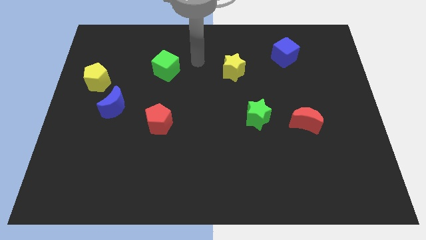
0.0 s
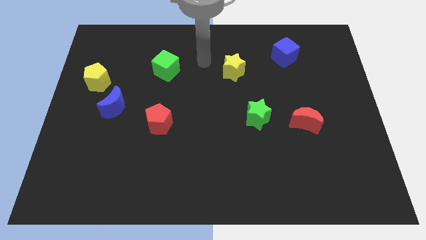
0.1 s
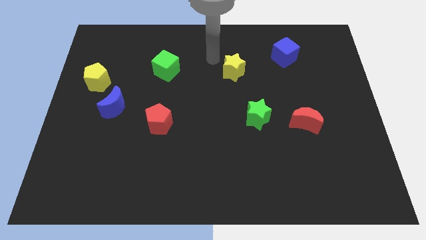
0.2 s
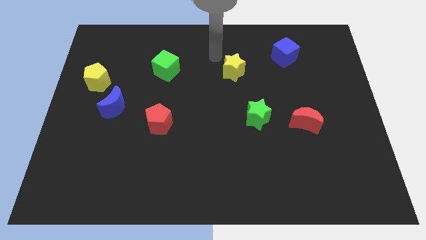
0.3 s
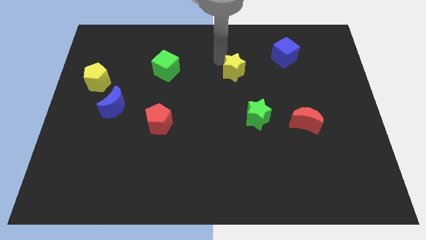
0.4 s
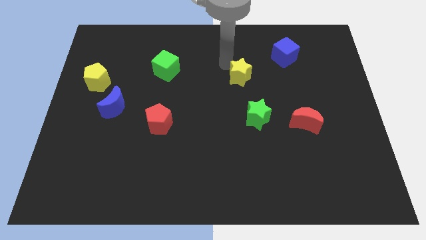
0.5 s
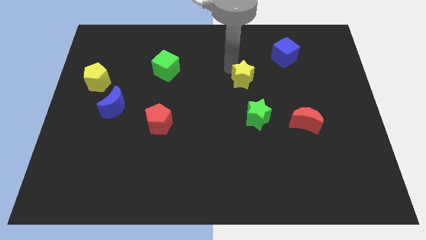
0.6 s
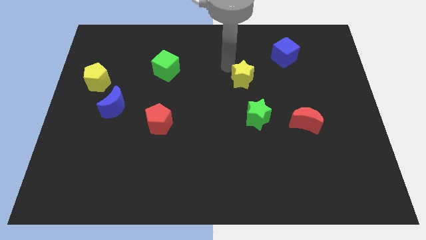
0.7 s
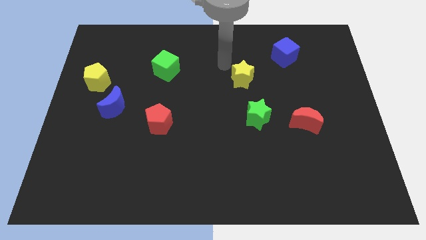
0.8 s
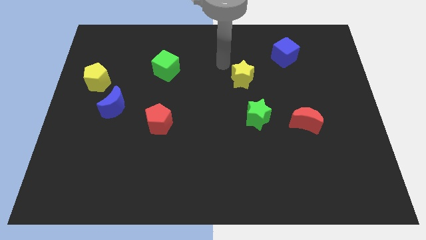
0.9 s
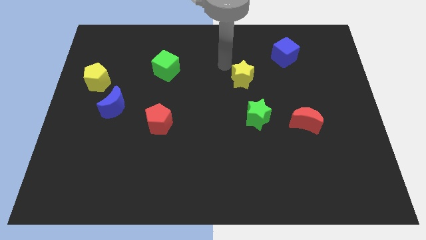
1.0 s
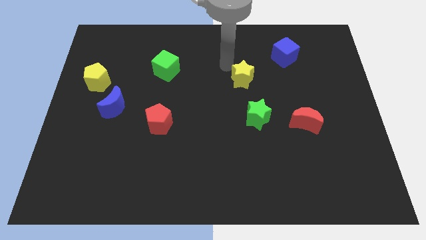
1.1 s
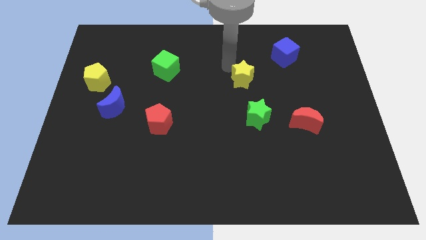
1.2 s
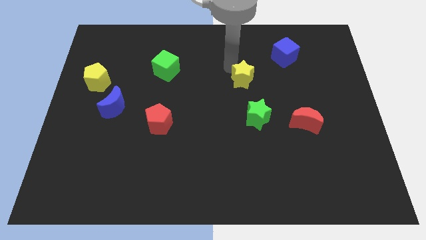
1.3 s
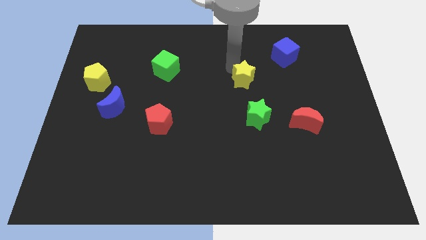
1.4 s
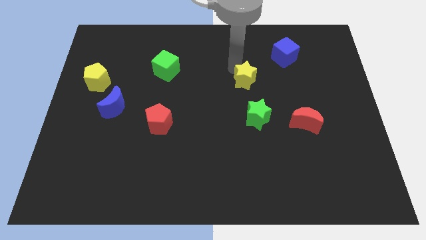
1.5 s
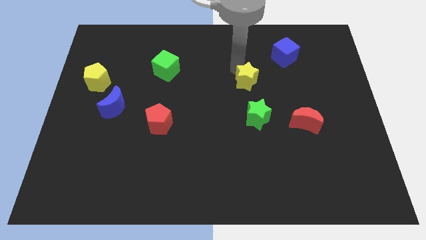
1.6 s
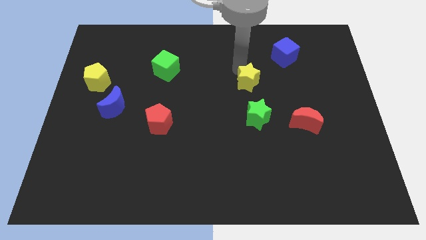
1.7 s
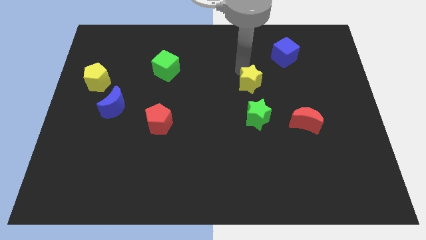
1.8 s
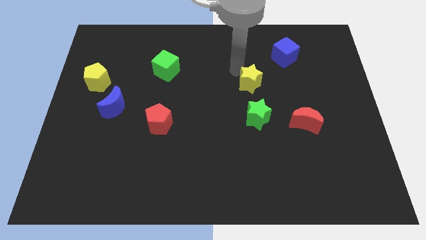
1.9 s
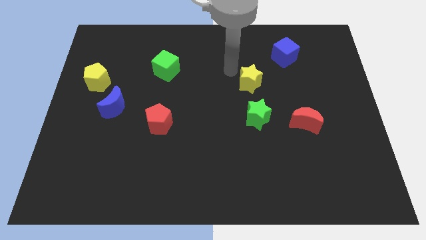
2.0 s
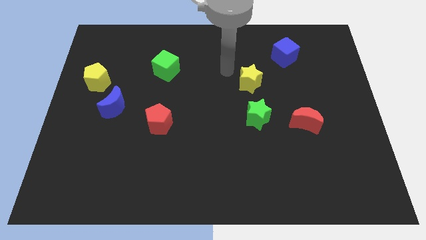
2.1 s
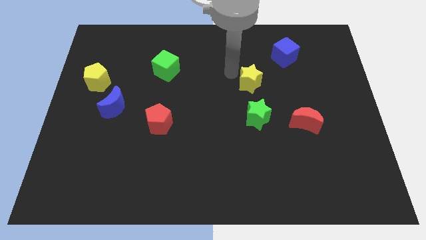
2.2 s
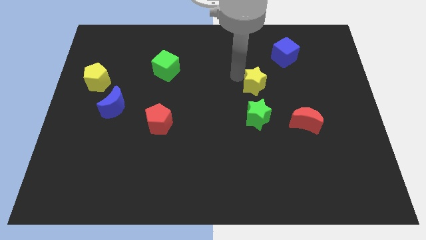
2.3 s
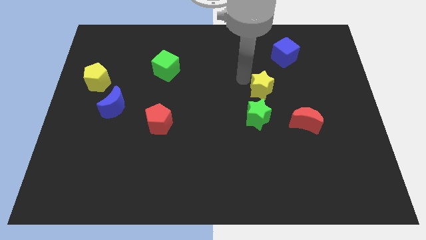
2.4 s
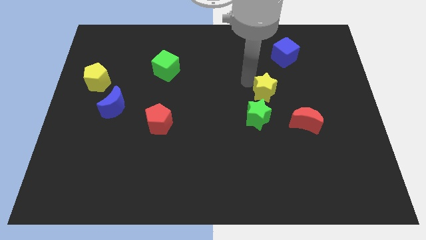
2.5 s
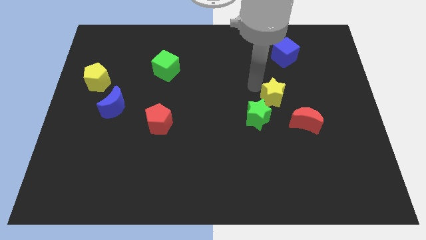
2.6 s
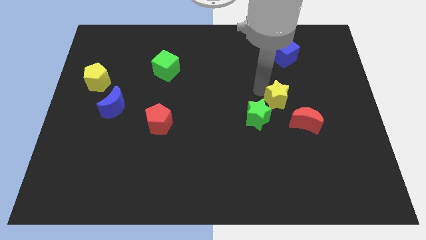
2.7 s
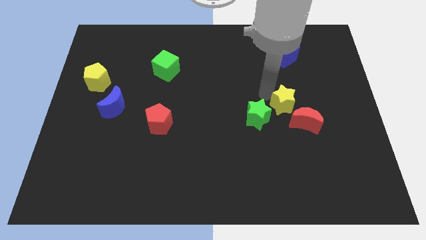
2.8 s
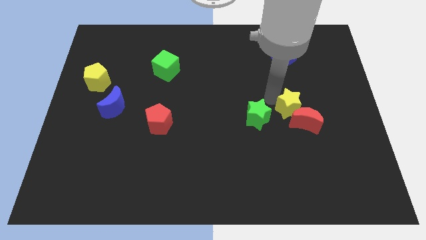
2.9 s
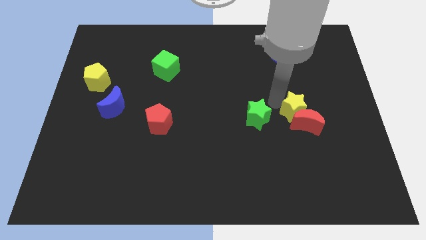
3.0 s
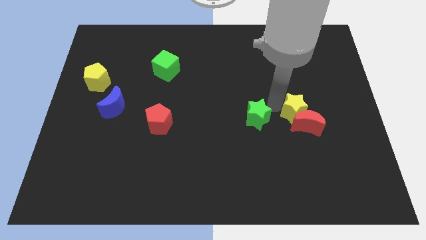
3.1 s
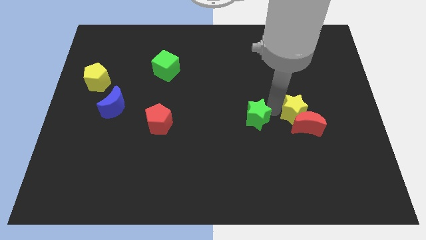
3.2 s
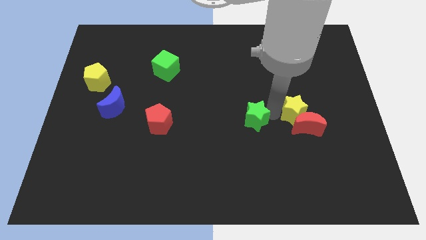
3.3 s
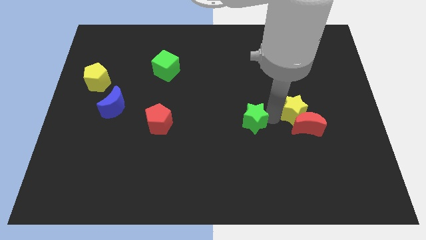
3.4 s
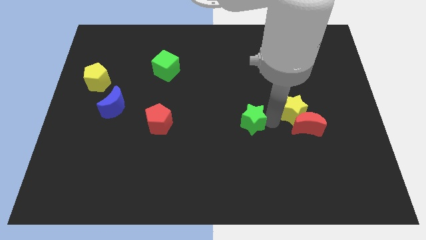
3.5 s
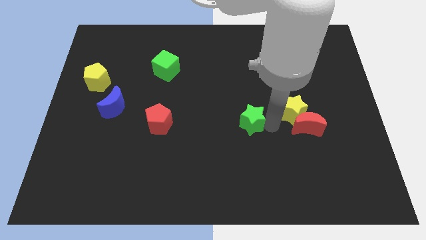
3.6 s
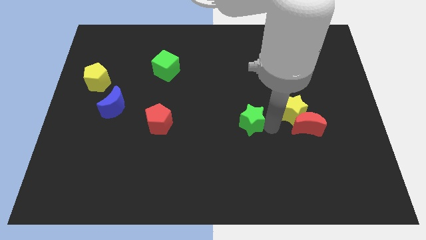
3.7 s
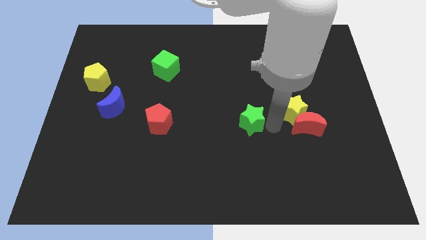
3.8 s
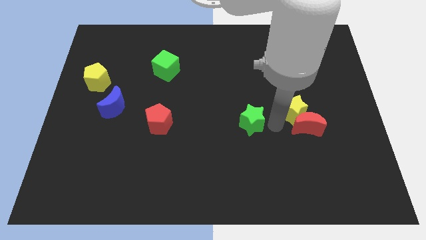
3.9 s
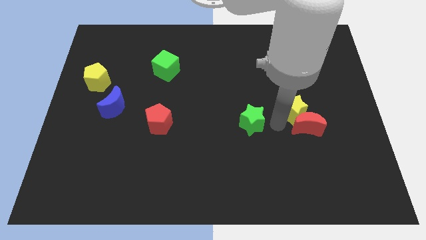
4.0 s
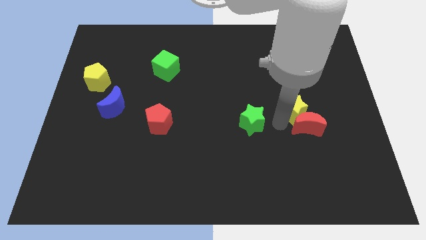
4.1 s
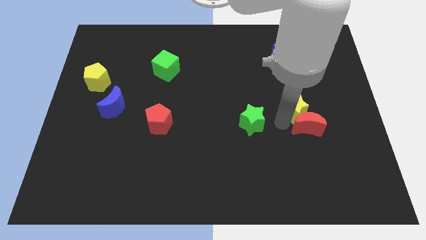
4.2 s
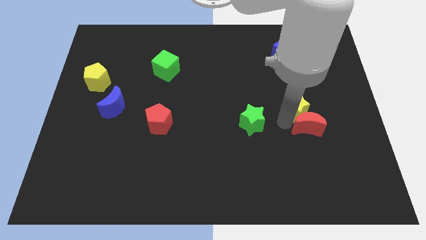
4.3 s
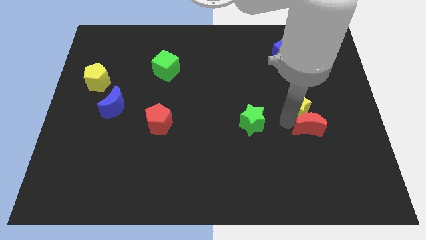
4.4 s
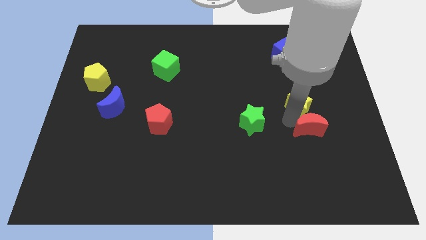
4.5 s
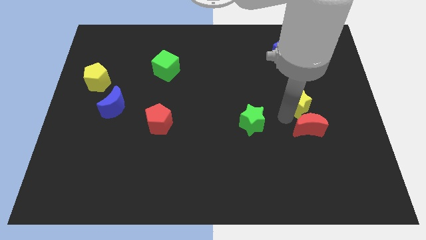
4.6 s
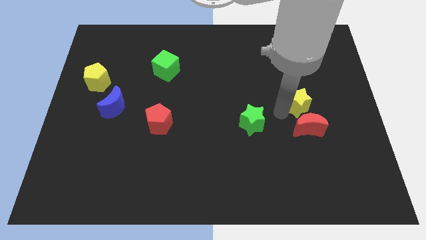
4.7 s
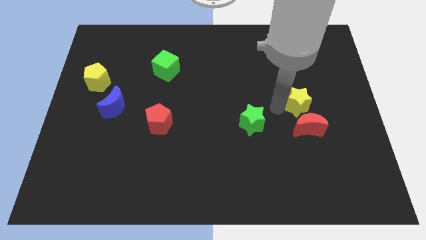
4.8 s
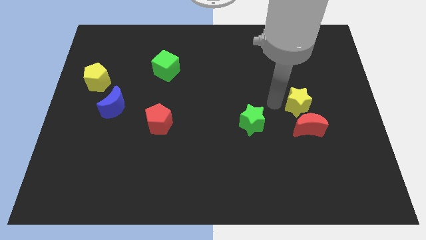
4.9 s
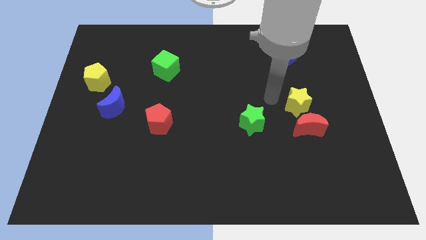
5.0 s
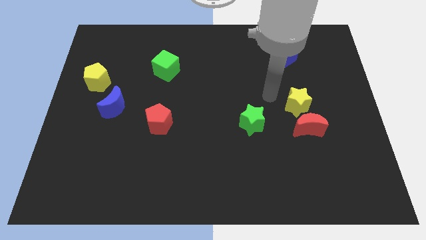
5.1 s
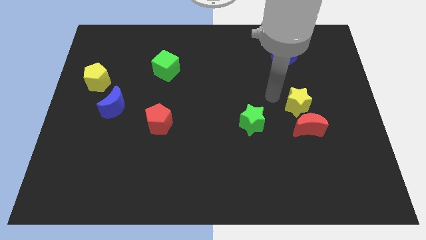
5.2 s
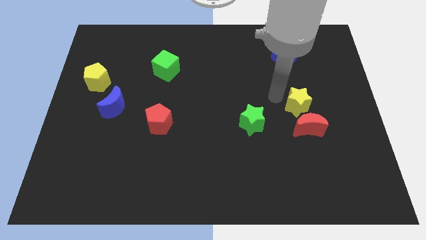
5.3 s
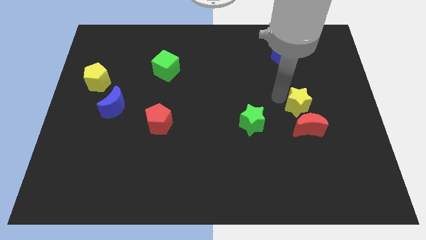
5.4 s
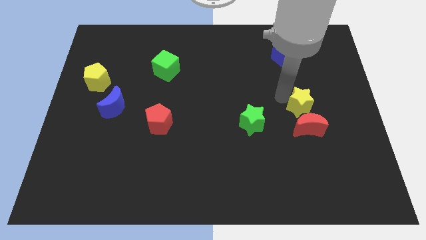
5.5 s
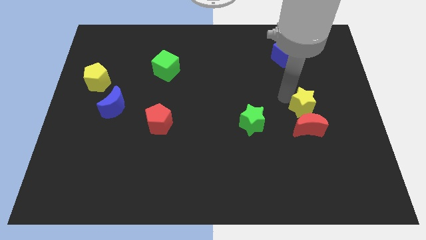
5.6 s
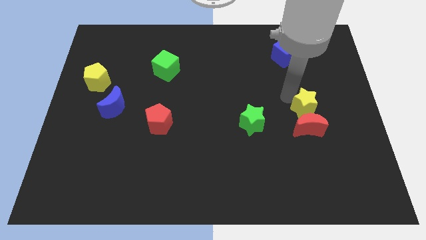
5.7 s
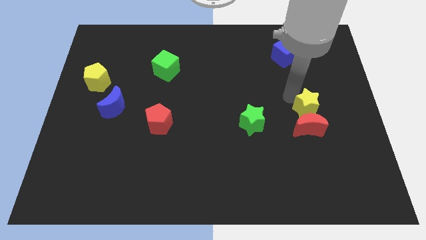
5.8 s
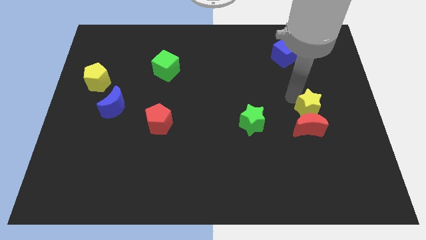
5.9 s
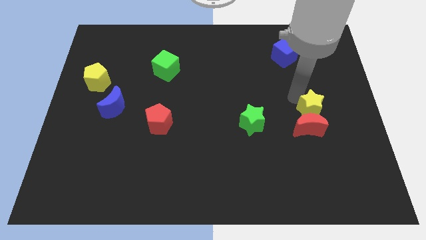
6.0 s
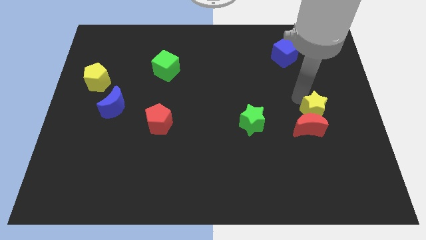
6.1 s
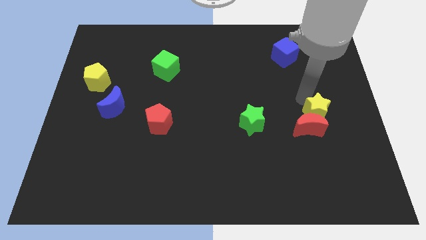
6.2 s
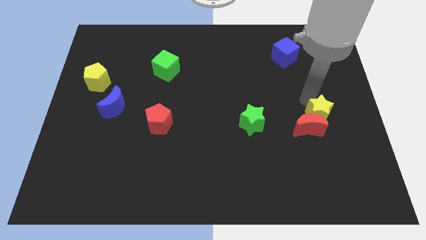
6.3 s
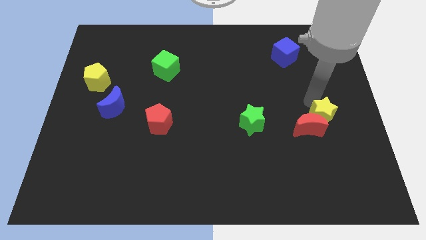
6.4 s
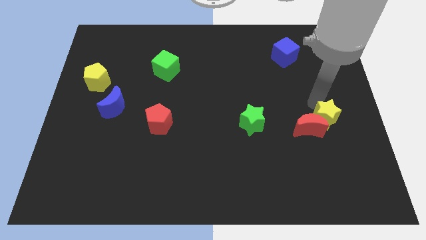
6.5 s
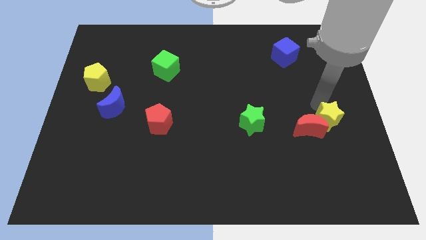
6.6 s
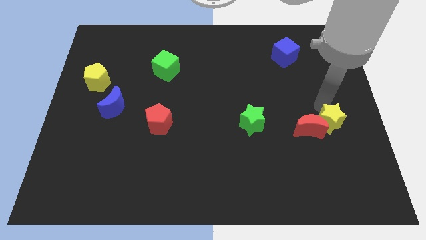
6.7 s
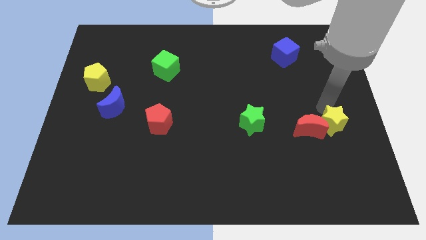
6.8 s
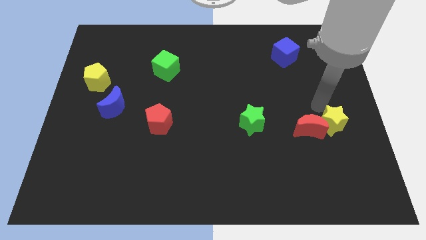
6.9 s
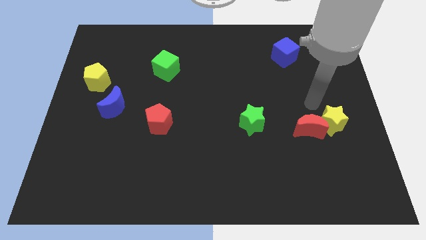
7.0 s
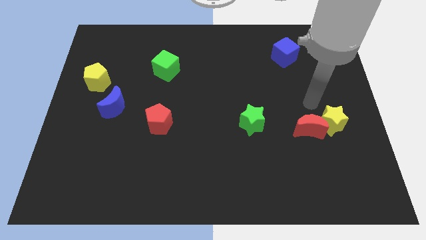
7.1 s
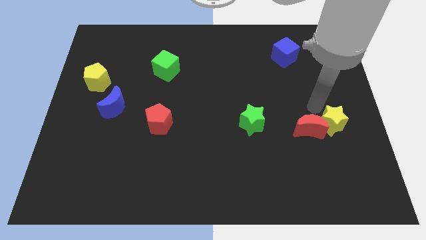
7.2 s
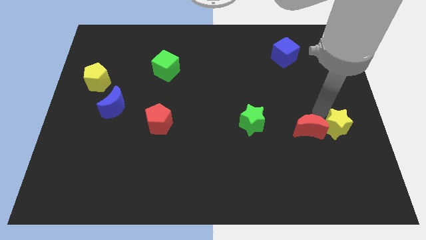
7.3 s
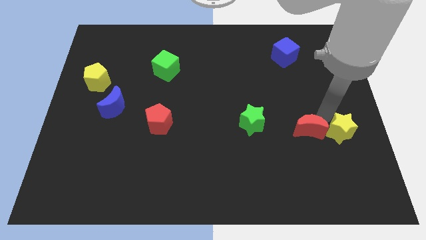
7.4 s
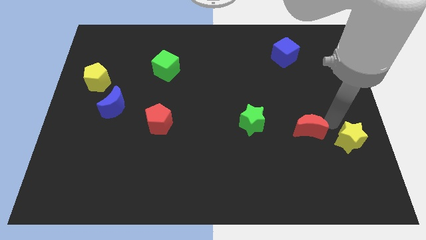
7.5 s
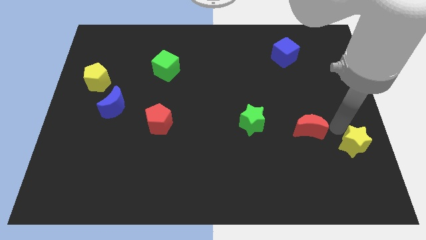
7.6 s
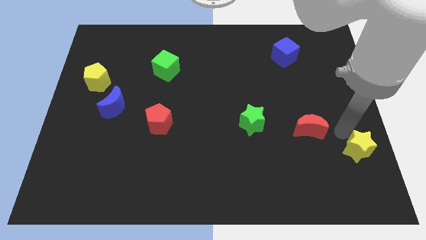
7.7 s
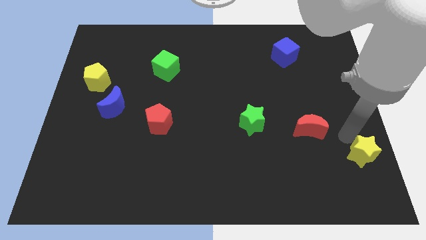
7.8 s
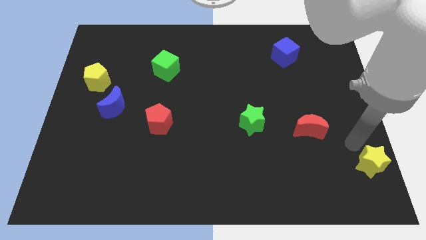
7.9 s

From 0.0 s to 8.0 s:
slide the yellow star to the bottom right corner
